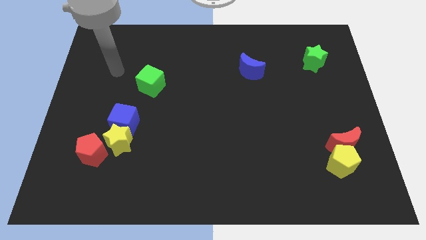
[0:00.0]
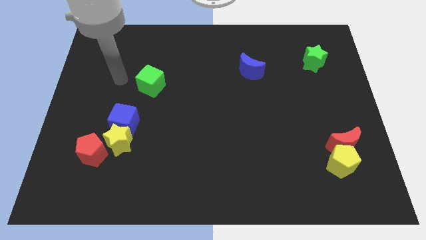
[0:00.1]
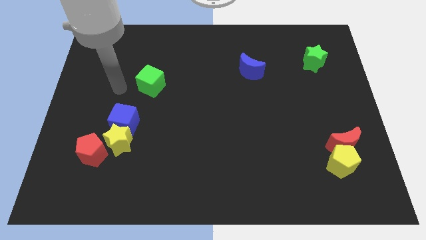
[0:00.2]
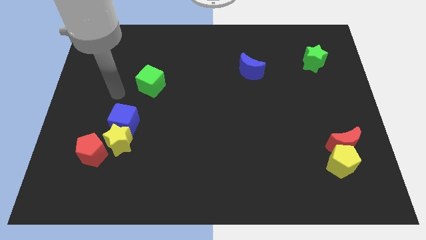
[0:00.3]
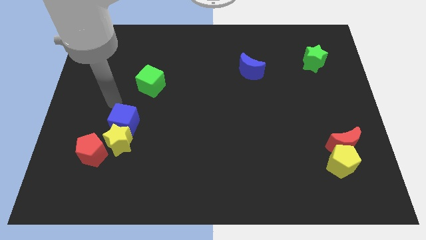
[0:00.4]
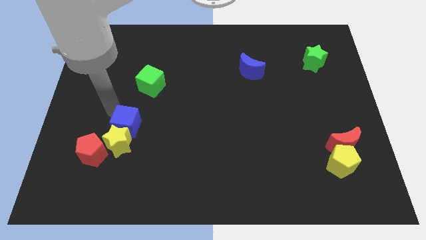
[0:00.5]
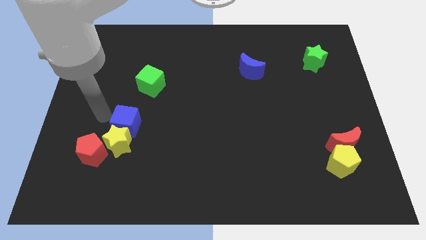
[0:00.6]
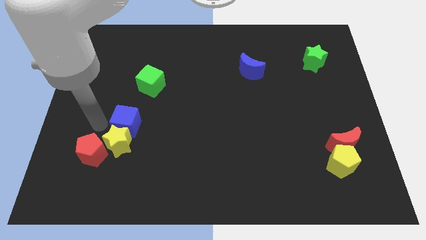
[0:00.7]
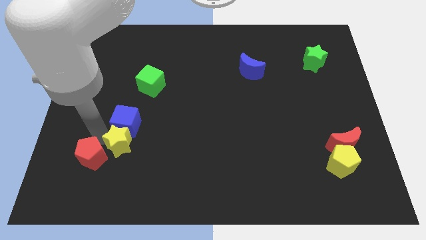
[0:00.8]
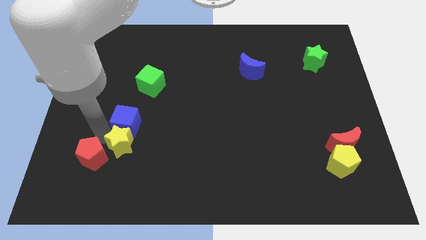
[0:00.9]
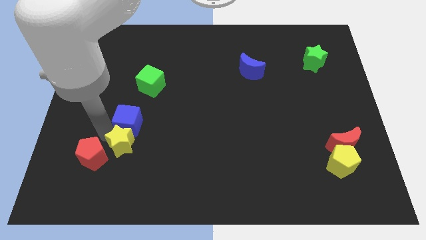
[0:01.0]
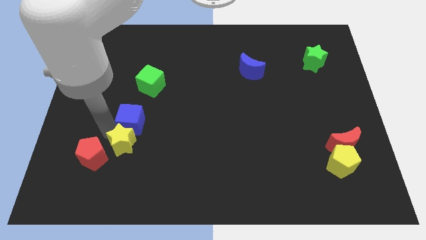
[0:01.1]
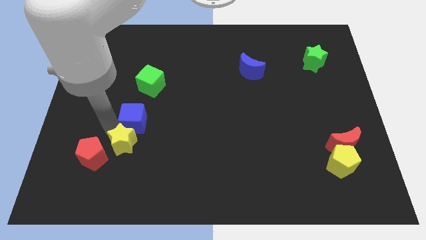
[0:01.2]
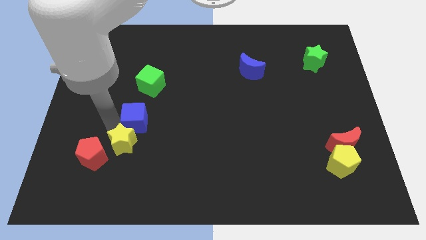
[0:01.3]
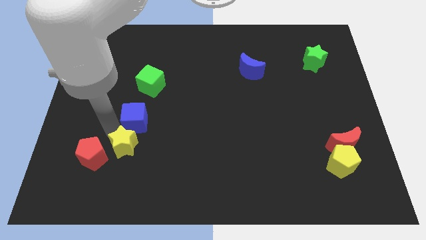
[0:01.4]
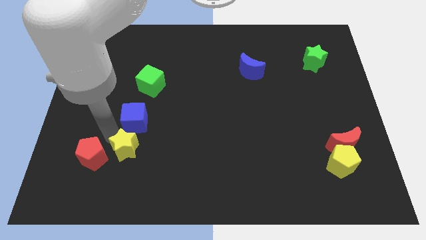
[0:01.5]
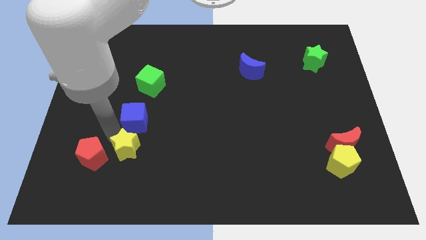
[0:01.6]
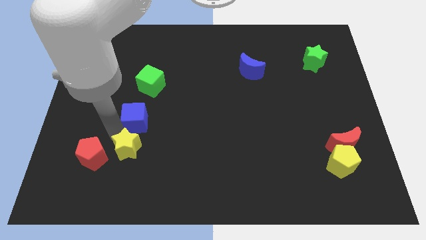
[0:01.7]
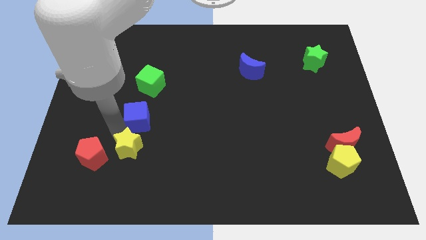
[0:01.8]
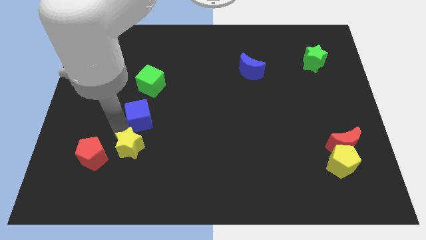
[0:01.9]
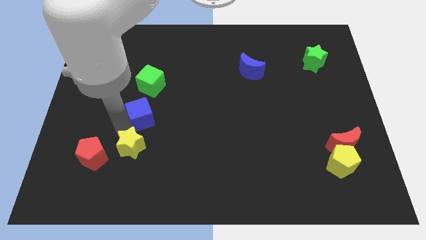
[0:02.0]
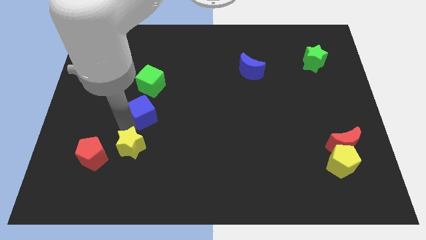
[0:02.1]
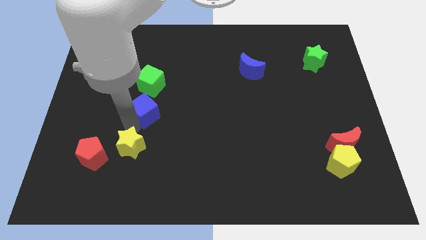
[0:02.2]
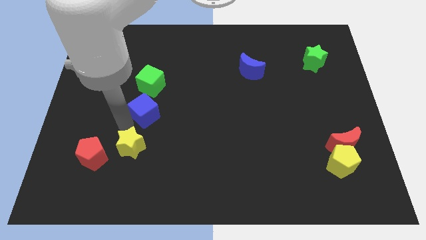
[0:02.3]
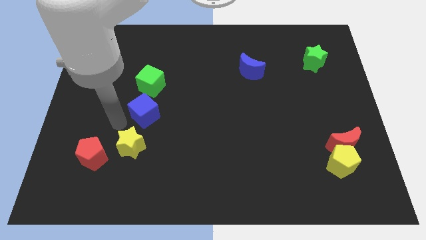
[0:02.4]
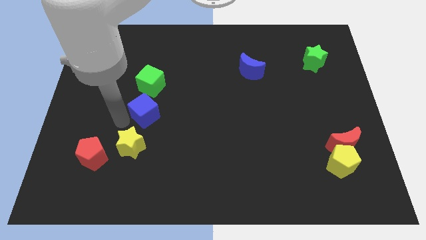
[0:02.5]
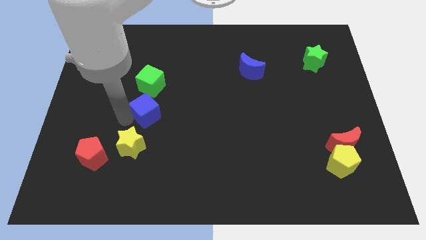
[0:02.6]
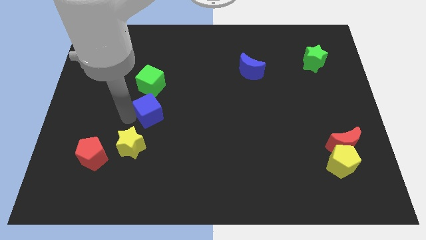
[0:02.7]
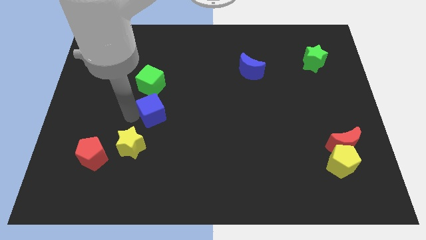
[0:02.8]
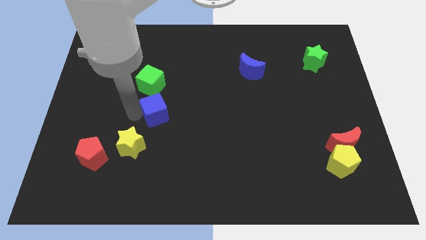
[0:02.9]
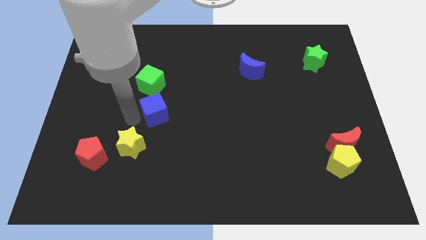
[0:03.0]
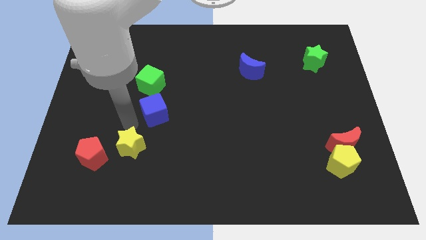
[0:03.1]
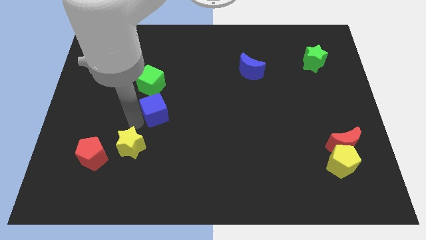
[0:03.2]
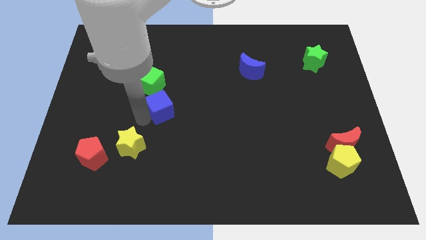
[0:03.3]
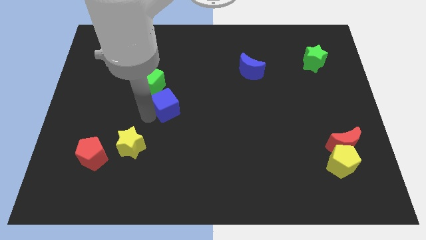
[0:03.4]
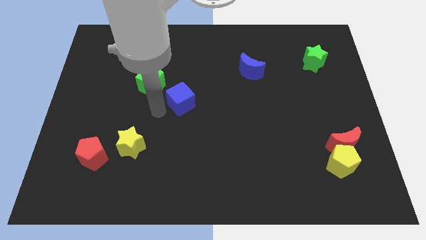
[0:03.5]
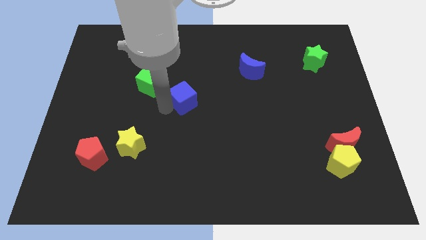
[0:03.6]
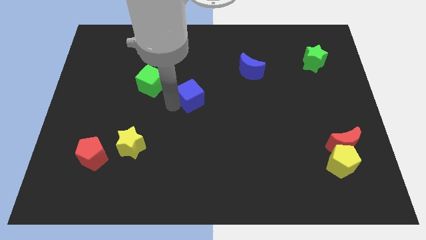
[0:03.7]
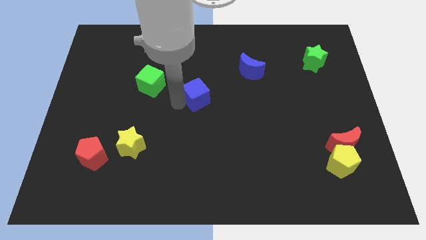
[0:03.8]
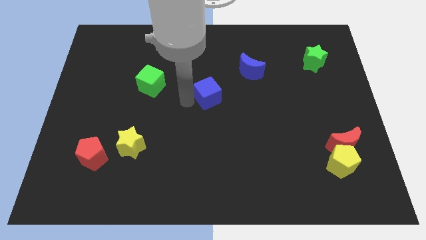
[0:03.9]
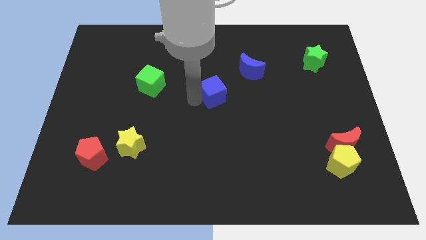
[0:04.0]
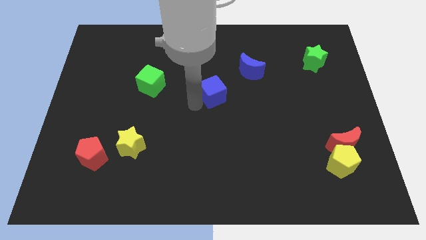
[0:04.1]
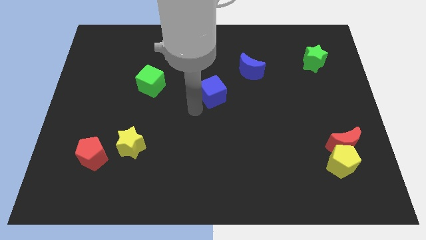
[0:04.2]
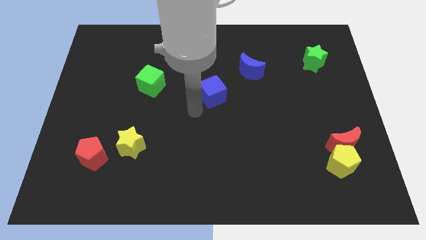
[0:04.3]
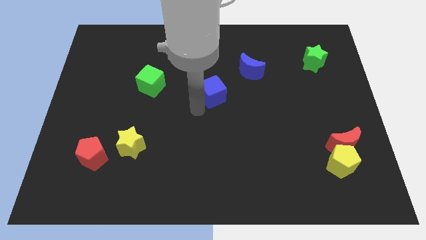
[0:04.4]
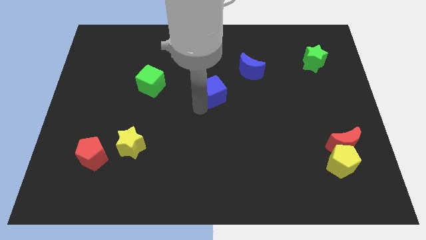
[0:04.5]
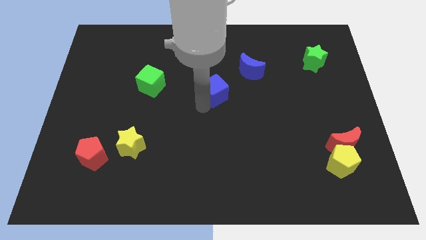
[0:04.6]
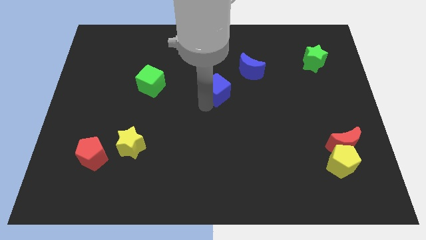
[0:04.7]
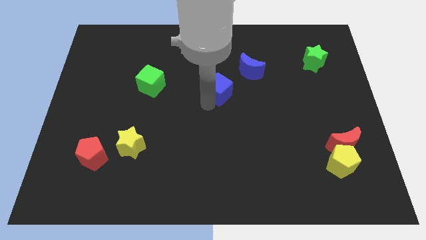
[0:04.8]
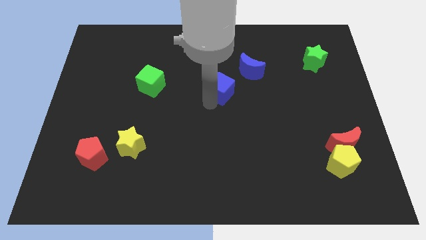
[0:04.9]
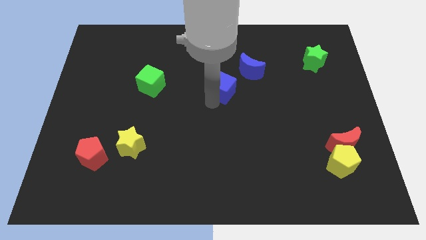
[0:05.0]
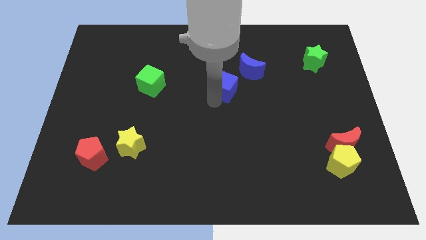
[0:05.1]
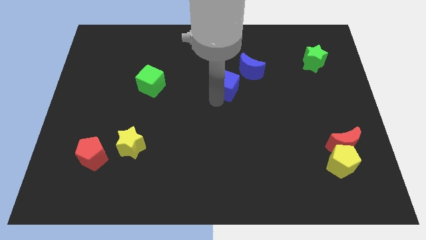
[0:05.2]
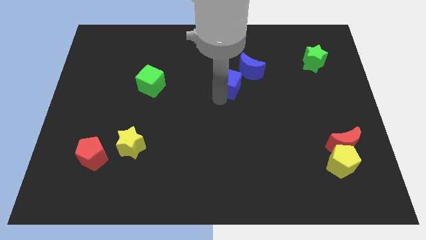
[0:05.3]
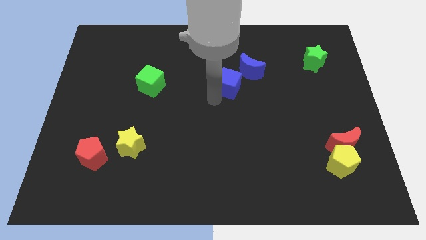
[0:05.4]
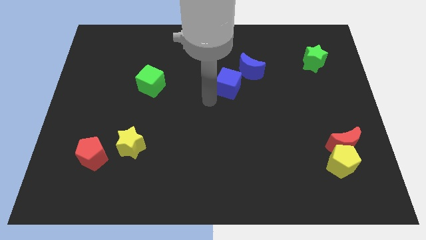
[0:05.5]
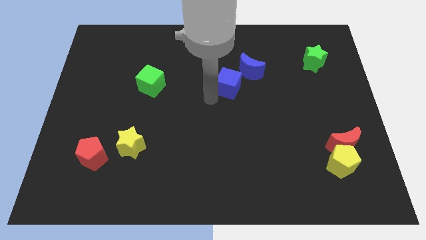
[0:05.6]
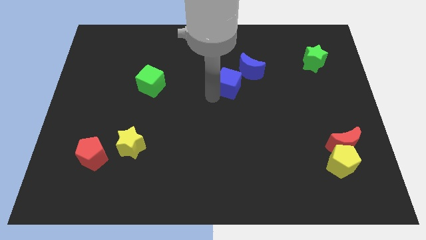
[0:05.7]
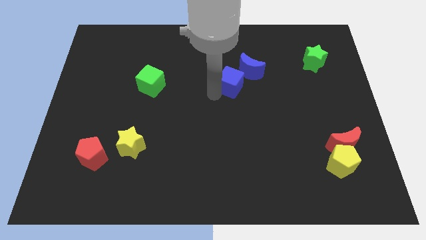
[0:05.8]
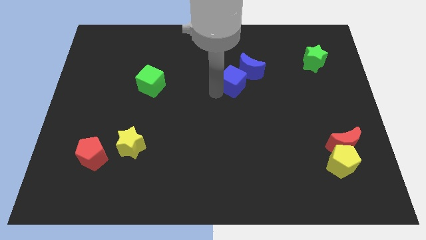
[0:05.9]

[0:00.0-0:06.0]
push the blue cube next to the blue moon

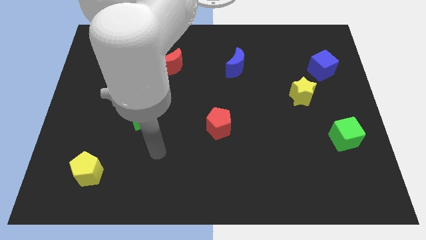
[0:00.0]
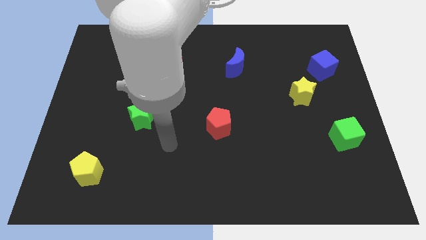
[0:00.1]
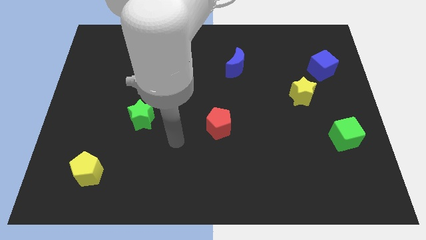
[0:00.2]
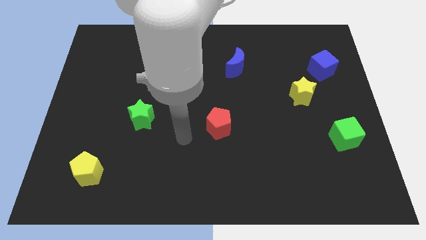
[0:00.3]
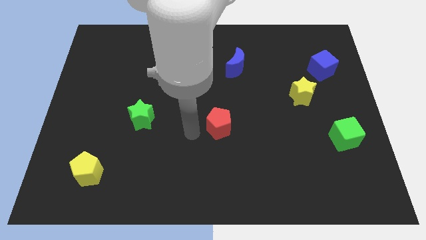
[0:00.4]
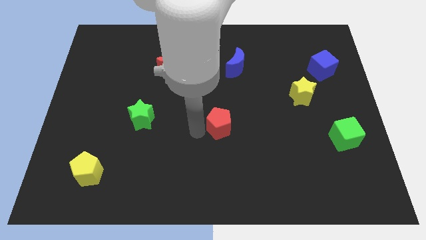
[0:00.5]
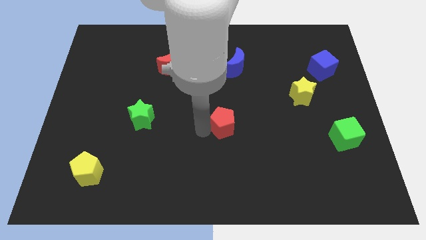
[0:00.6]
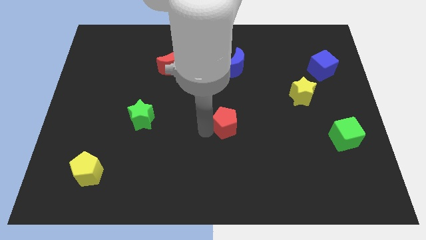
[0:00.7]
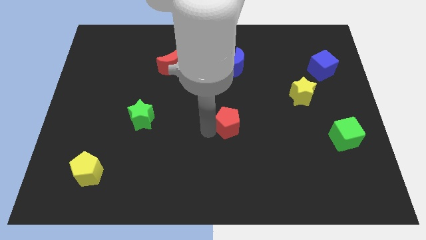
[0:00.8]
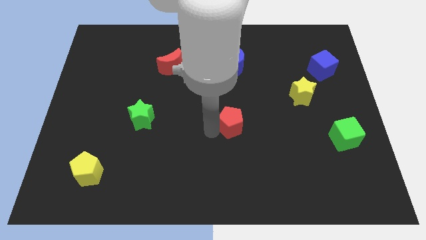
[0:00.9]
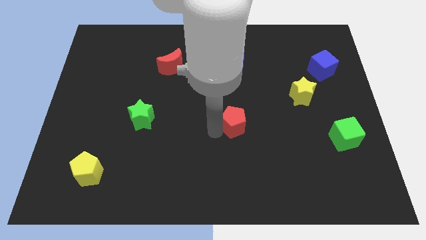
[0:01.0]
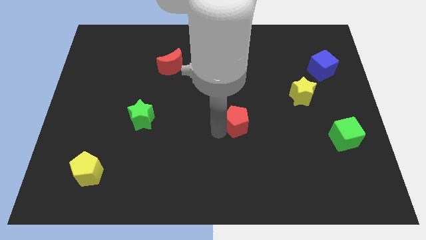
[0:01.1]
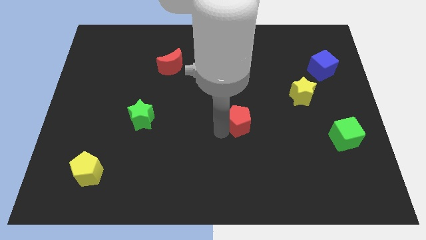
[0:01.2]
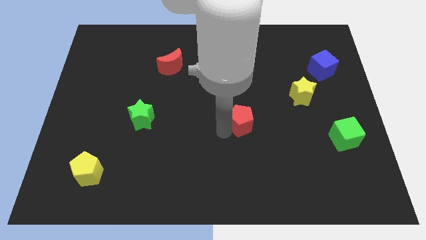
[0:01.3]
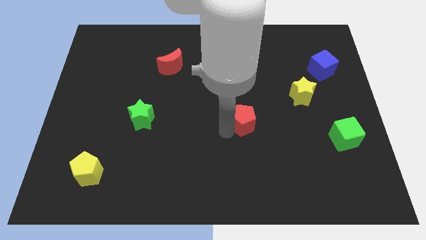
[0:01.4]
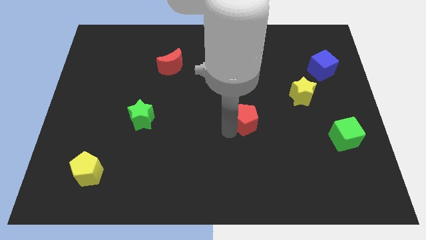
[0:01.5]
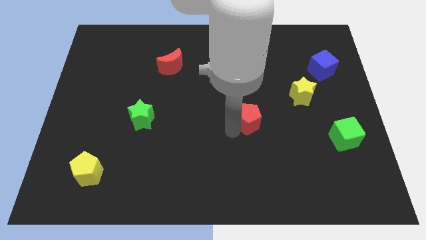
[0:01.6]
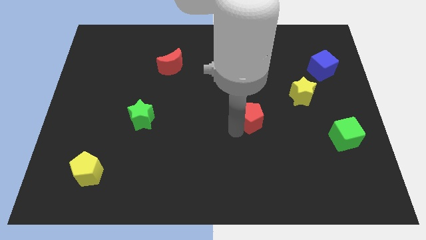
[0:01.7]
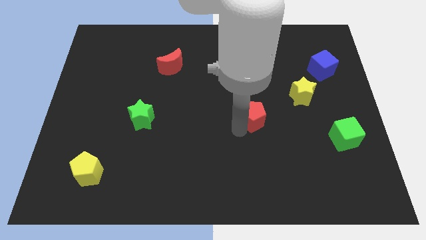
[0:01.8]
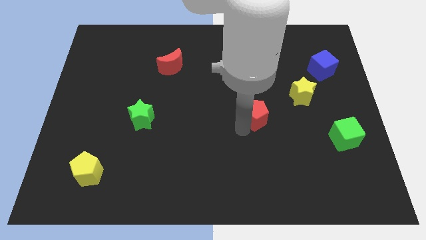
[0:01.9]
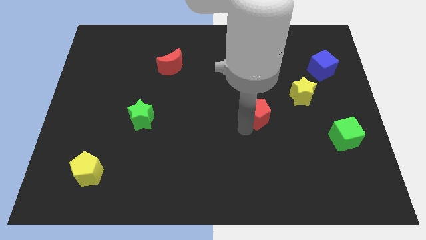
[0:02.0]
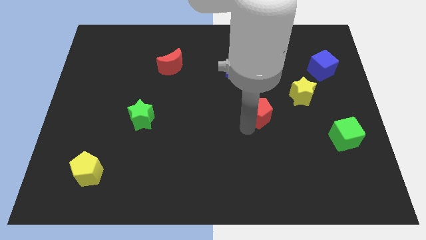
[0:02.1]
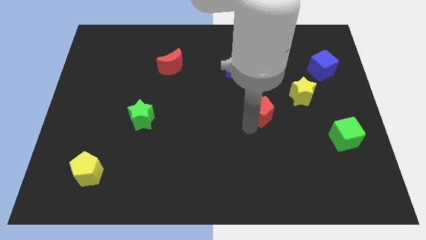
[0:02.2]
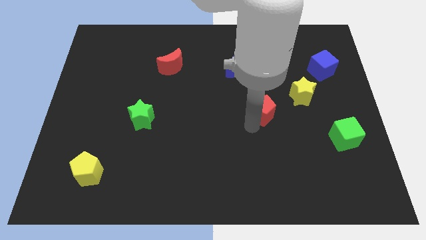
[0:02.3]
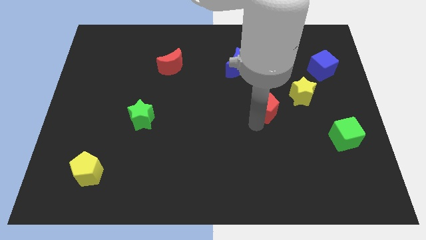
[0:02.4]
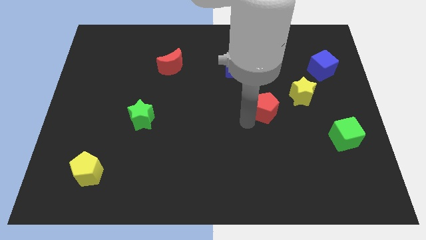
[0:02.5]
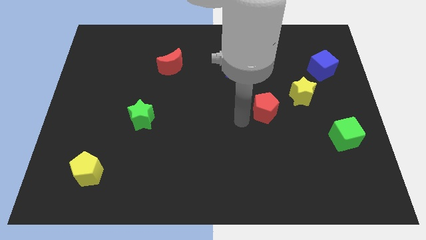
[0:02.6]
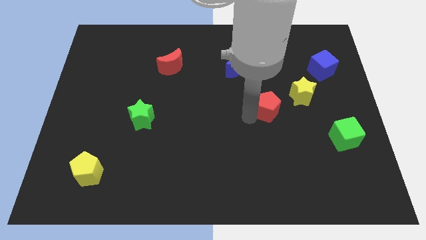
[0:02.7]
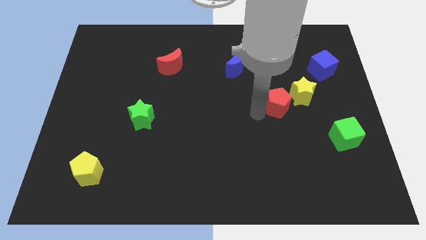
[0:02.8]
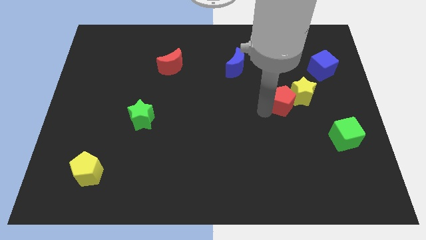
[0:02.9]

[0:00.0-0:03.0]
slide the red pentagon close to the yellow star
